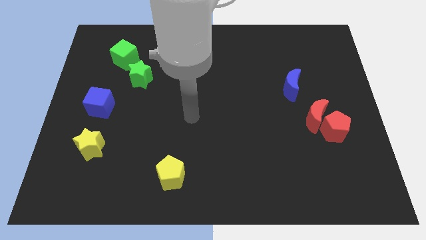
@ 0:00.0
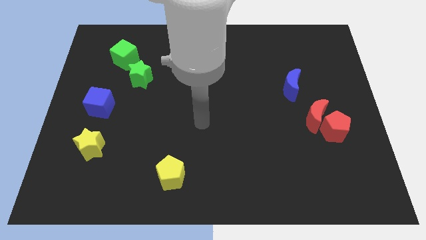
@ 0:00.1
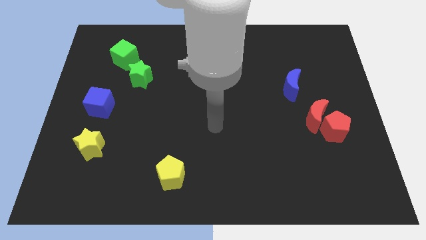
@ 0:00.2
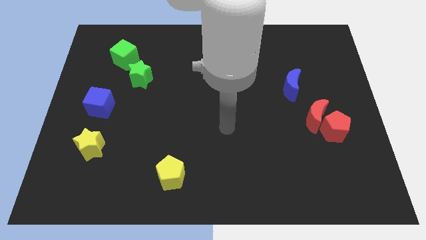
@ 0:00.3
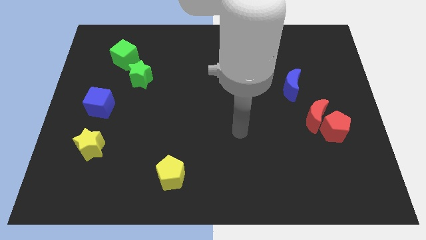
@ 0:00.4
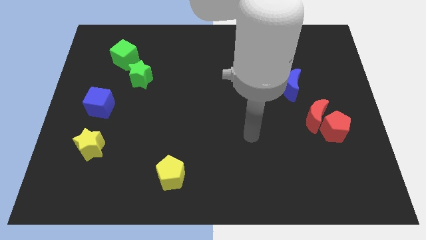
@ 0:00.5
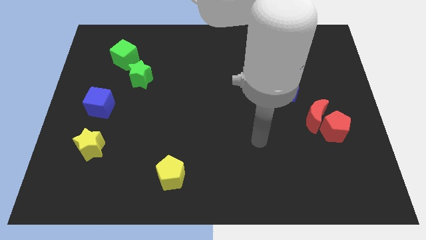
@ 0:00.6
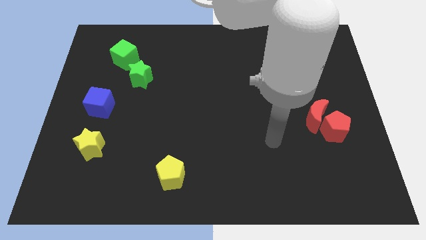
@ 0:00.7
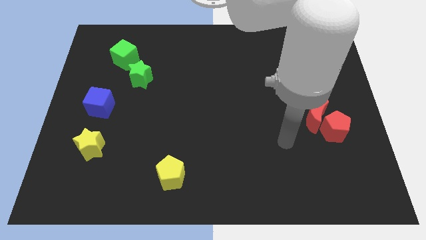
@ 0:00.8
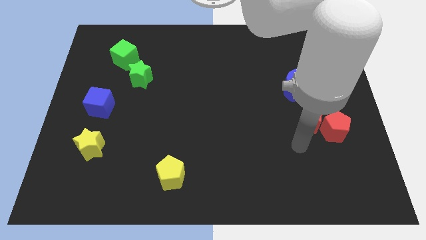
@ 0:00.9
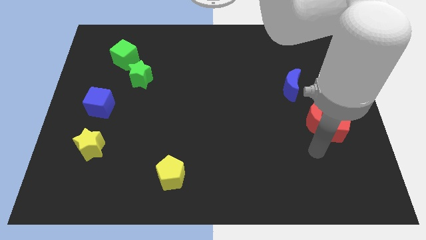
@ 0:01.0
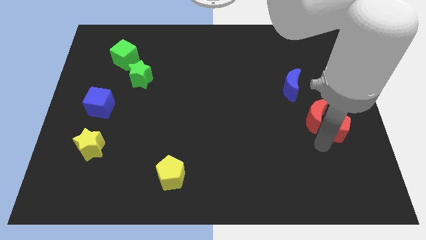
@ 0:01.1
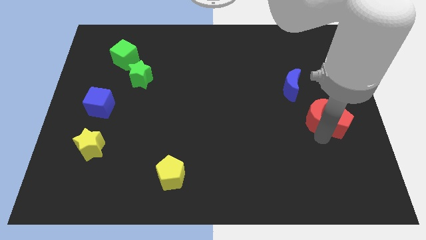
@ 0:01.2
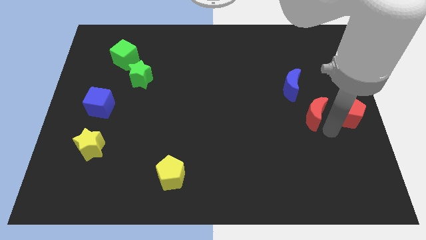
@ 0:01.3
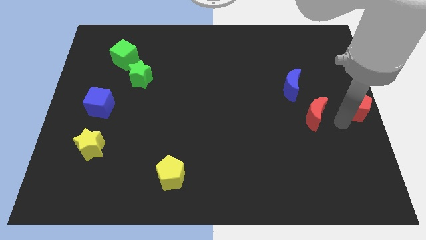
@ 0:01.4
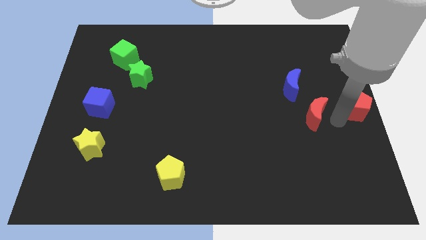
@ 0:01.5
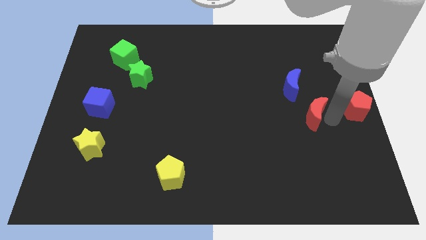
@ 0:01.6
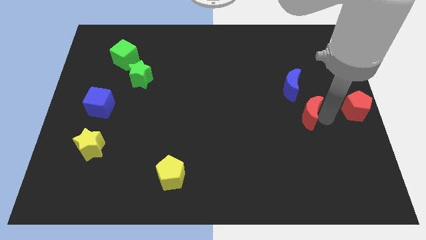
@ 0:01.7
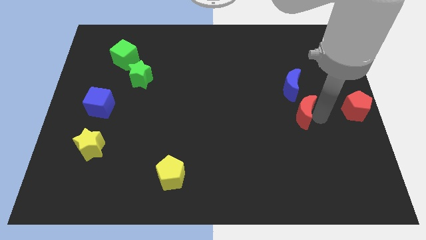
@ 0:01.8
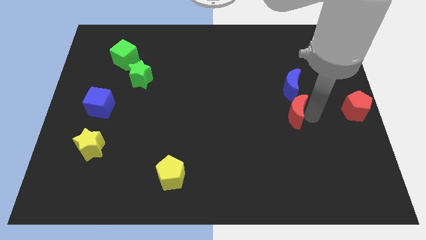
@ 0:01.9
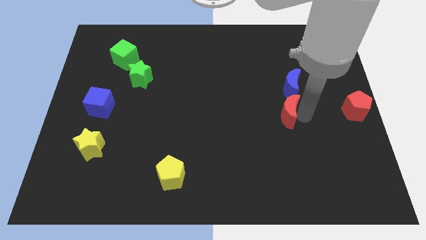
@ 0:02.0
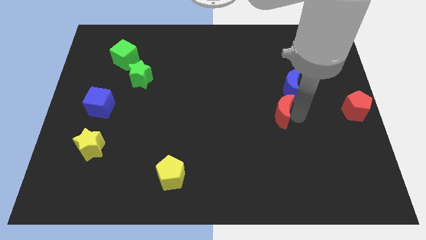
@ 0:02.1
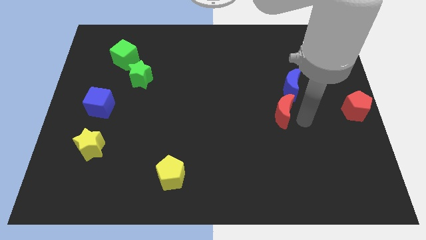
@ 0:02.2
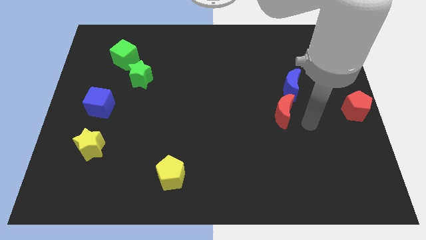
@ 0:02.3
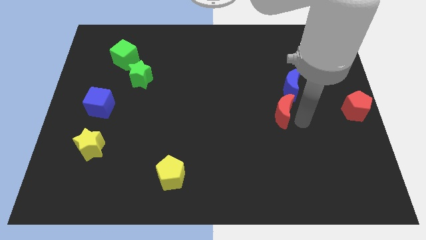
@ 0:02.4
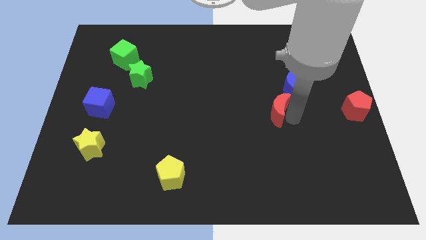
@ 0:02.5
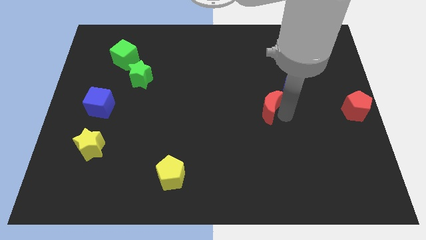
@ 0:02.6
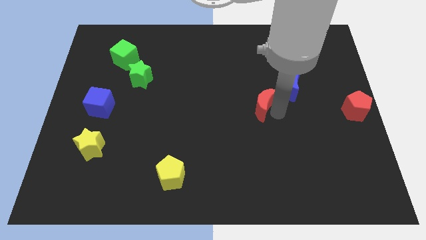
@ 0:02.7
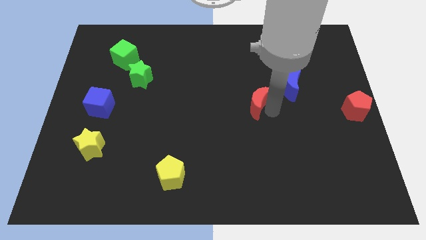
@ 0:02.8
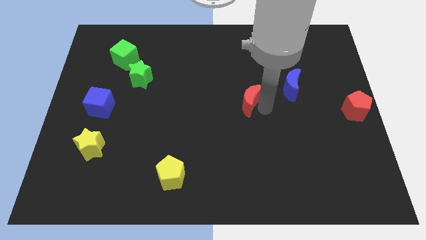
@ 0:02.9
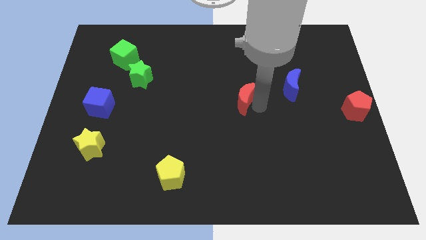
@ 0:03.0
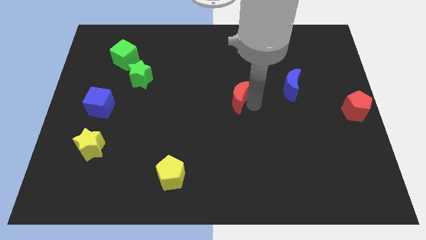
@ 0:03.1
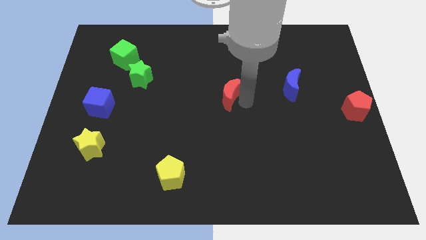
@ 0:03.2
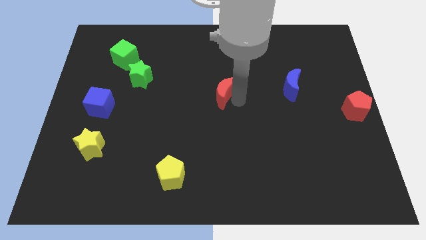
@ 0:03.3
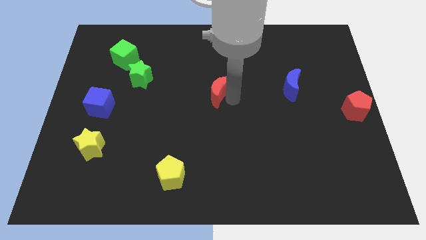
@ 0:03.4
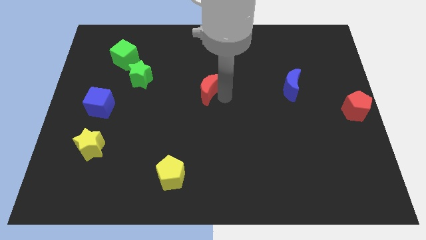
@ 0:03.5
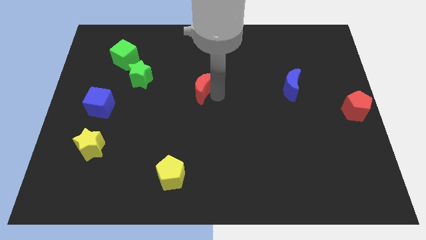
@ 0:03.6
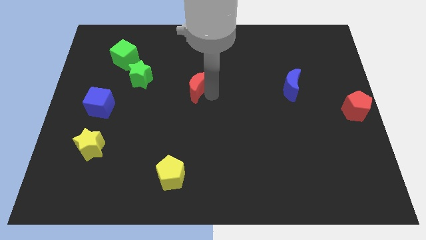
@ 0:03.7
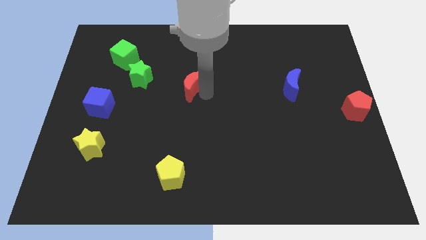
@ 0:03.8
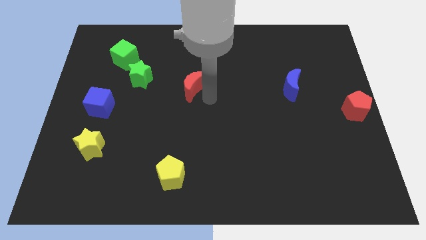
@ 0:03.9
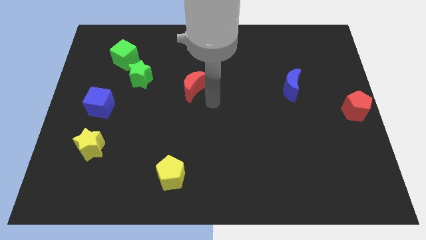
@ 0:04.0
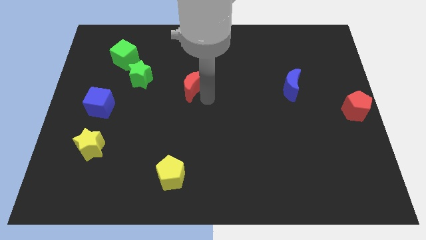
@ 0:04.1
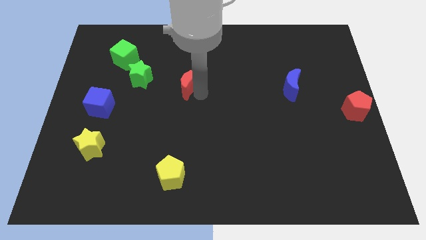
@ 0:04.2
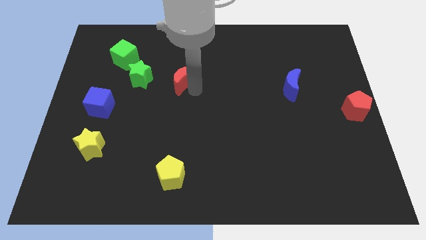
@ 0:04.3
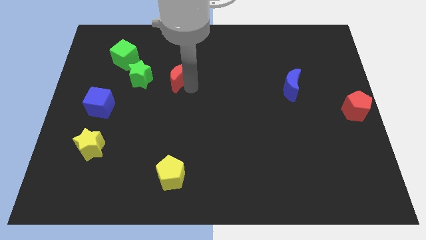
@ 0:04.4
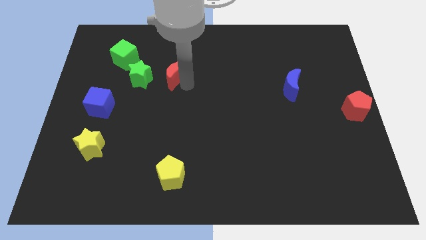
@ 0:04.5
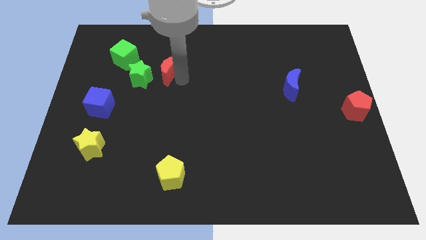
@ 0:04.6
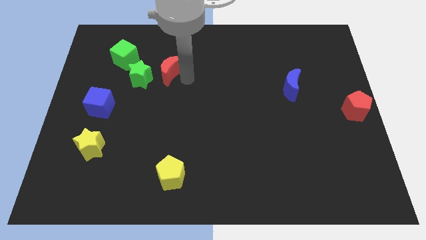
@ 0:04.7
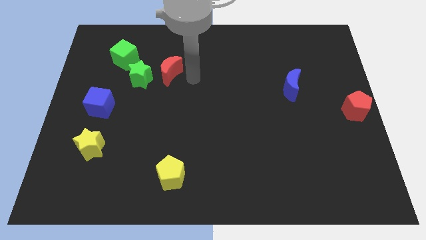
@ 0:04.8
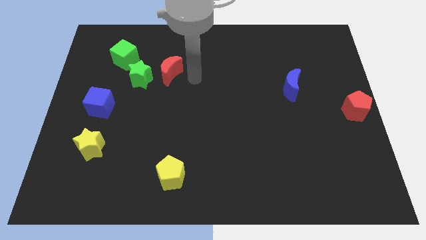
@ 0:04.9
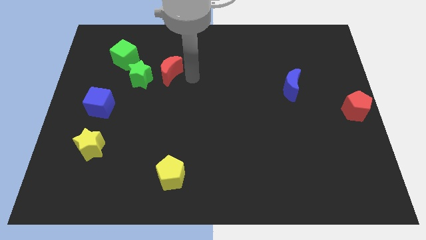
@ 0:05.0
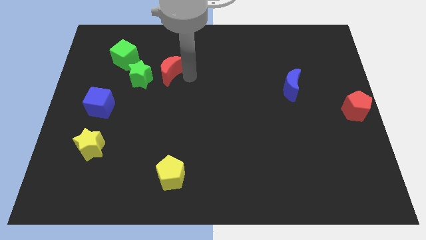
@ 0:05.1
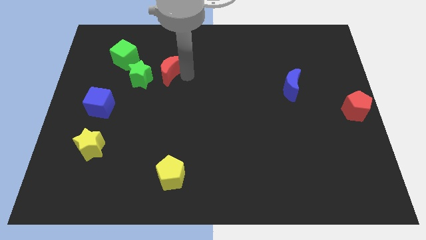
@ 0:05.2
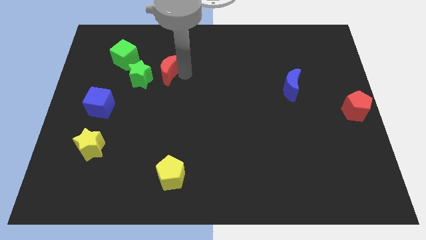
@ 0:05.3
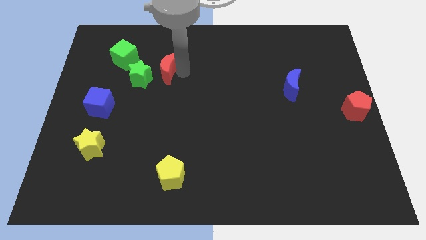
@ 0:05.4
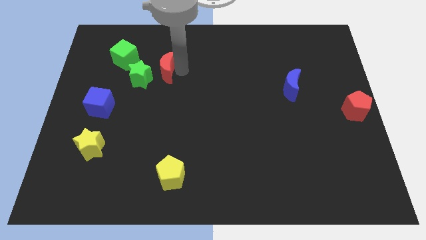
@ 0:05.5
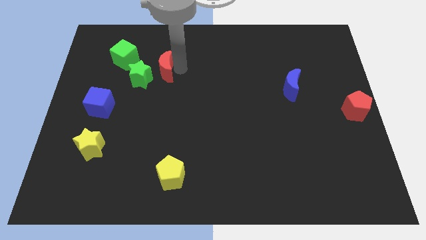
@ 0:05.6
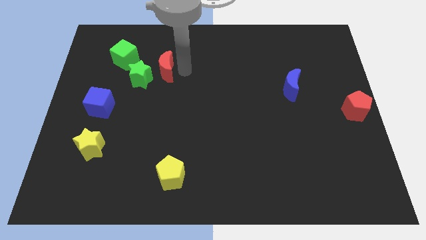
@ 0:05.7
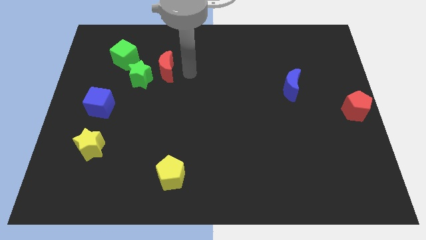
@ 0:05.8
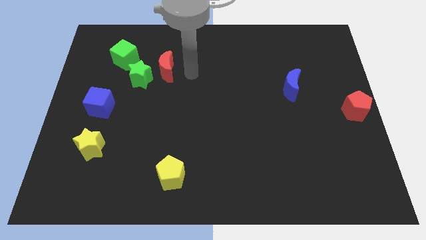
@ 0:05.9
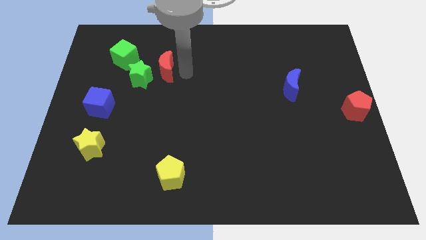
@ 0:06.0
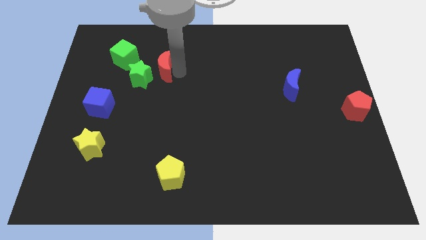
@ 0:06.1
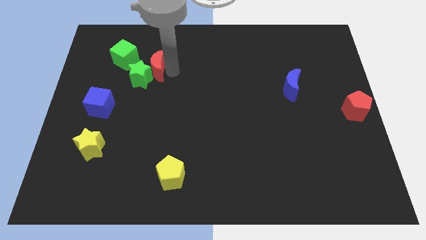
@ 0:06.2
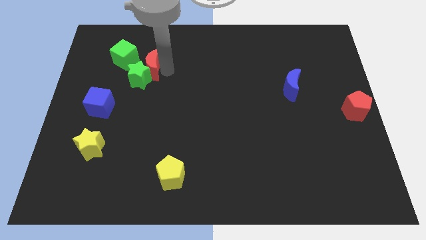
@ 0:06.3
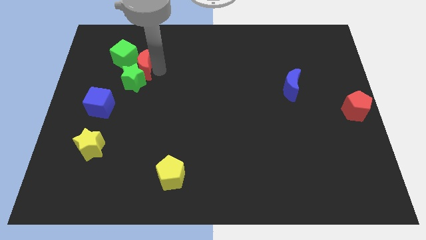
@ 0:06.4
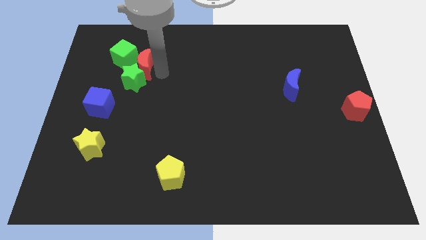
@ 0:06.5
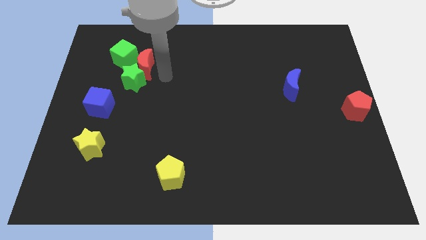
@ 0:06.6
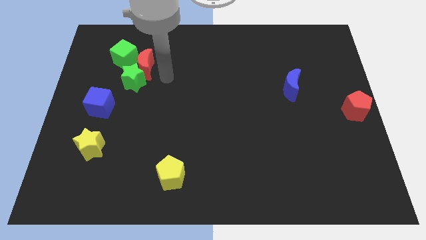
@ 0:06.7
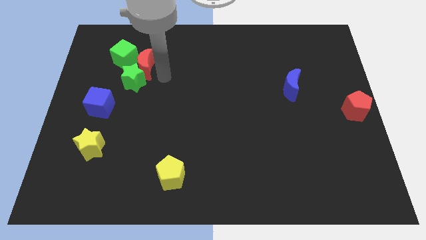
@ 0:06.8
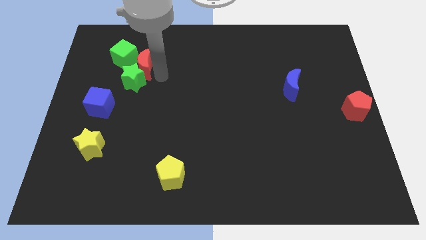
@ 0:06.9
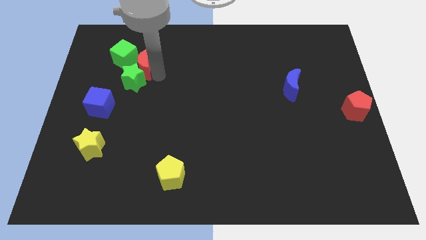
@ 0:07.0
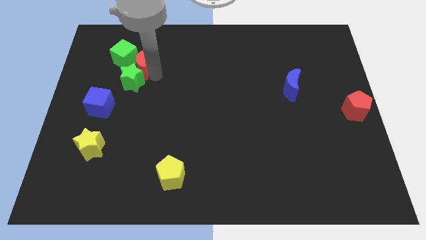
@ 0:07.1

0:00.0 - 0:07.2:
push the red moon next to the green cube

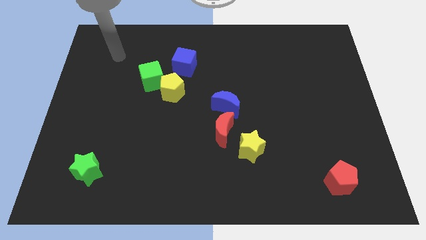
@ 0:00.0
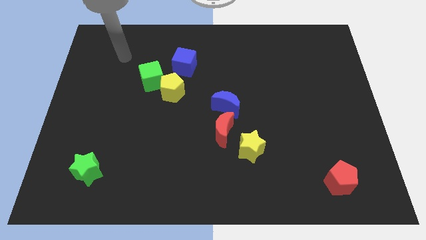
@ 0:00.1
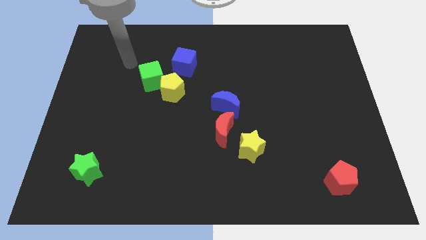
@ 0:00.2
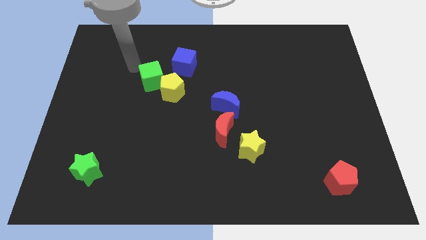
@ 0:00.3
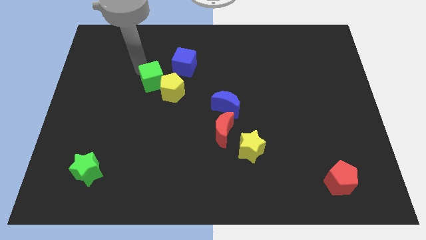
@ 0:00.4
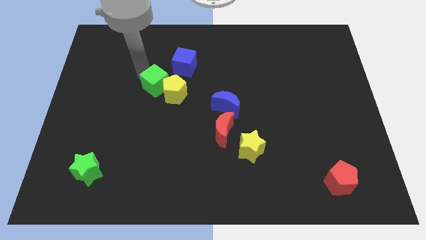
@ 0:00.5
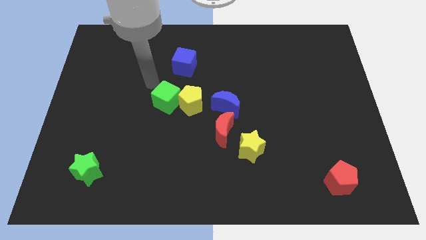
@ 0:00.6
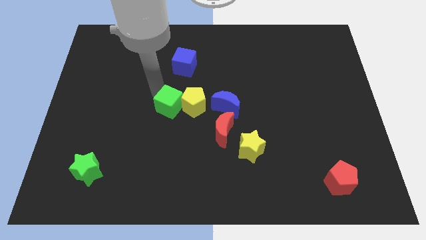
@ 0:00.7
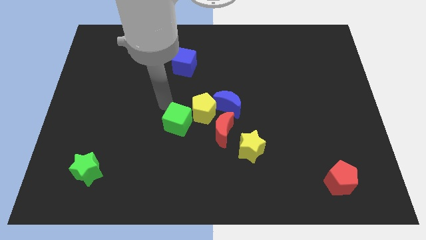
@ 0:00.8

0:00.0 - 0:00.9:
slide the yellow pentagon to the blue moon
